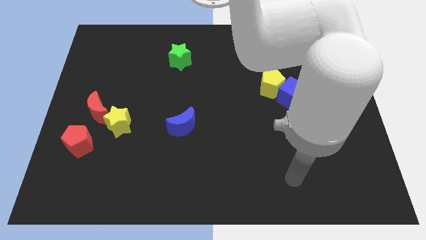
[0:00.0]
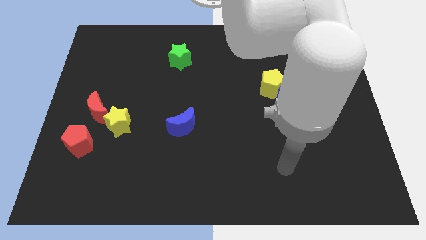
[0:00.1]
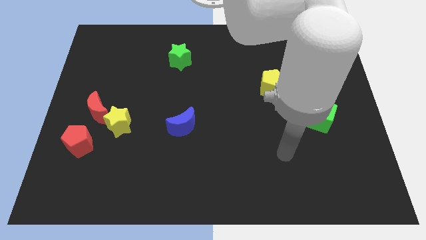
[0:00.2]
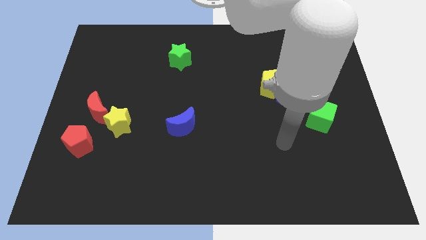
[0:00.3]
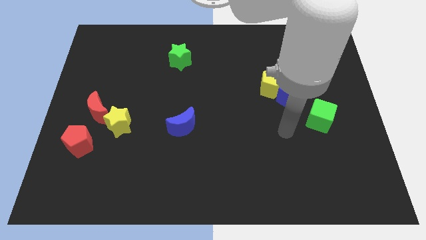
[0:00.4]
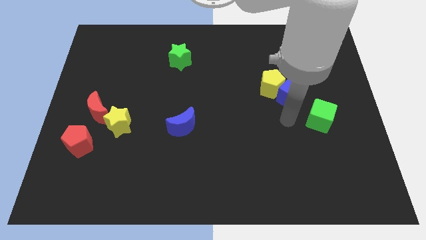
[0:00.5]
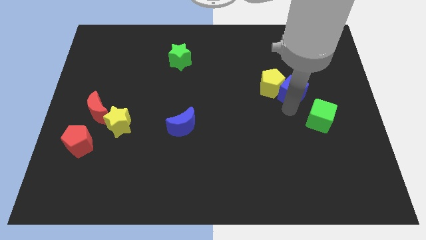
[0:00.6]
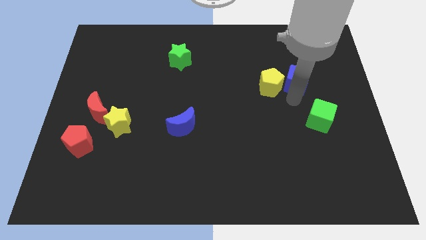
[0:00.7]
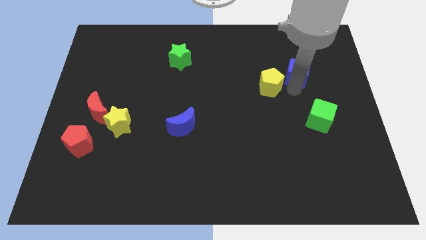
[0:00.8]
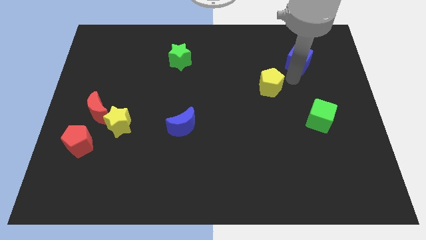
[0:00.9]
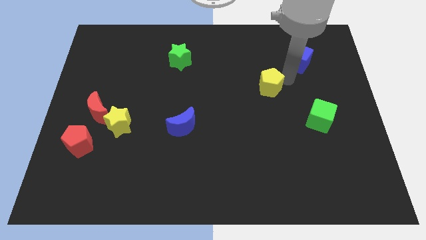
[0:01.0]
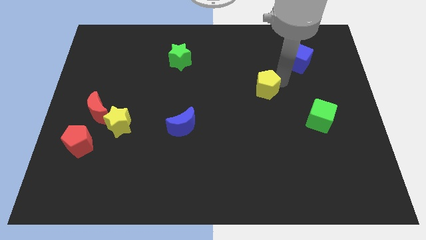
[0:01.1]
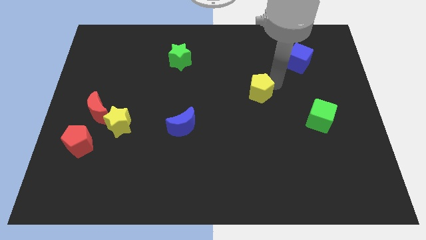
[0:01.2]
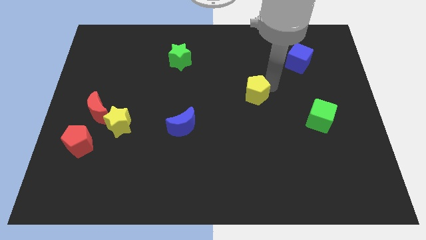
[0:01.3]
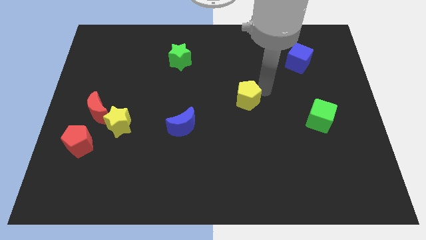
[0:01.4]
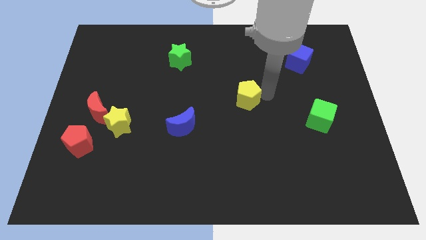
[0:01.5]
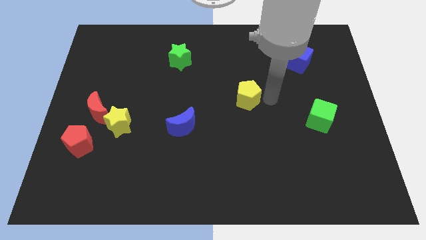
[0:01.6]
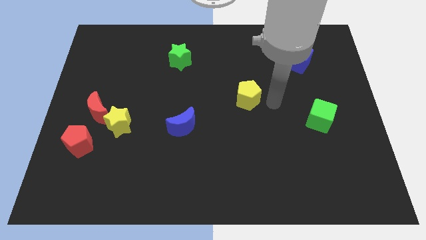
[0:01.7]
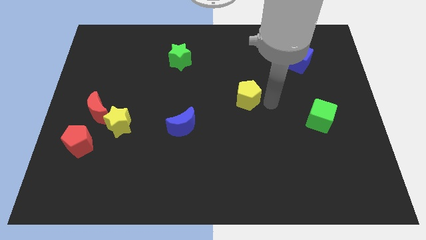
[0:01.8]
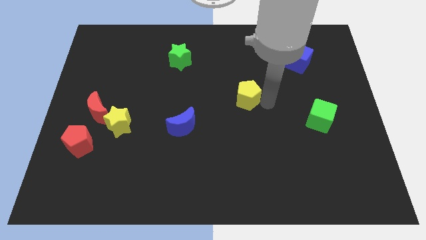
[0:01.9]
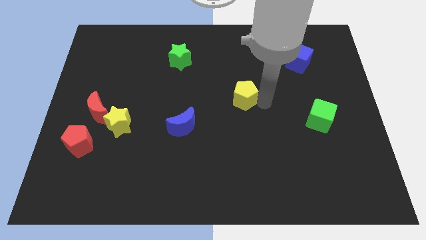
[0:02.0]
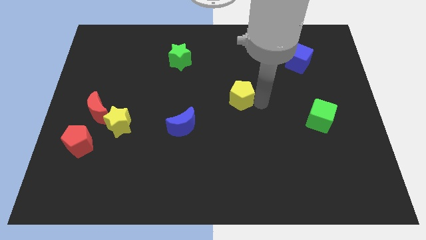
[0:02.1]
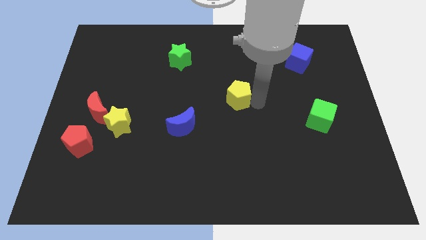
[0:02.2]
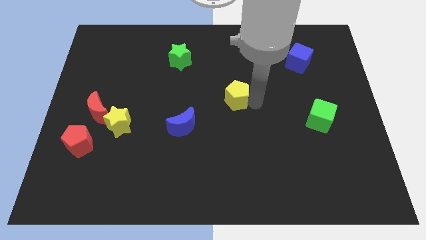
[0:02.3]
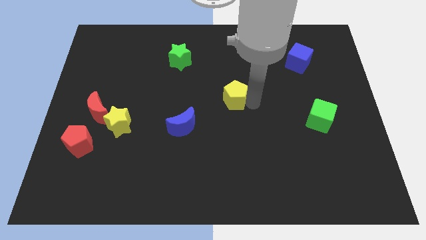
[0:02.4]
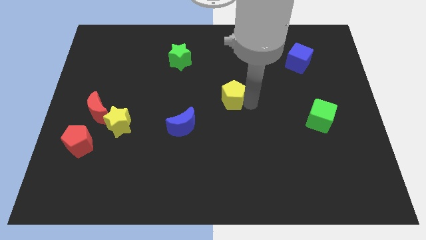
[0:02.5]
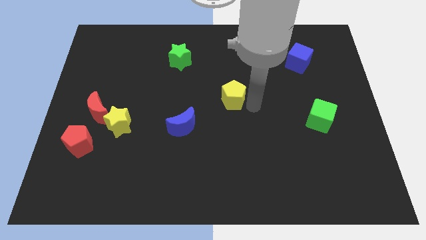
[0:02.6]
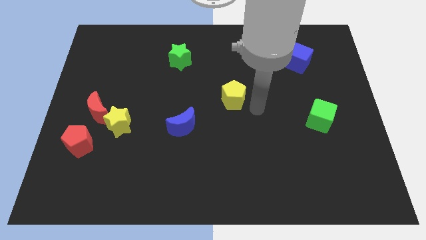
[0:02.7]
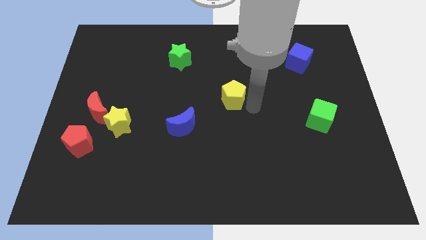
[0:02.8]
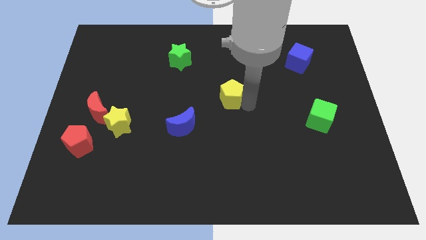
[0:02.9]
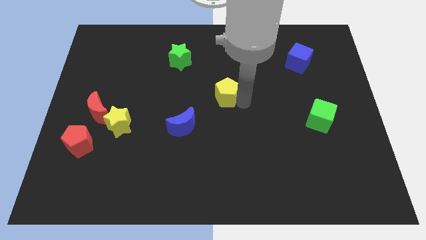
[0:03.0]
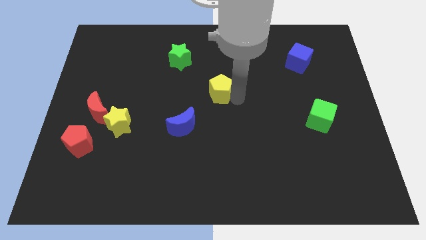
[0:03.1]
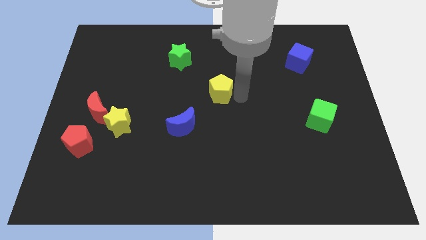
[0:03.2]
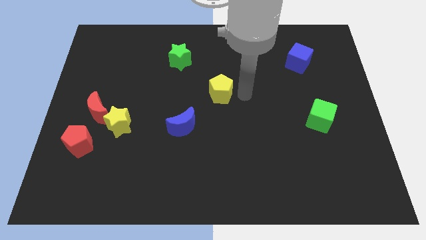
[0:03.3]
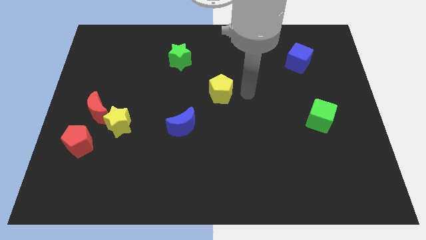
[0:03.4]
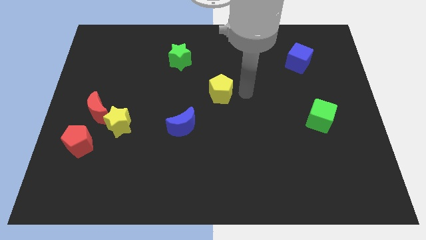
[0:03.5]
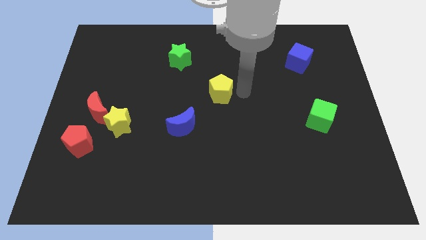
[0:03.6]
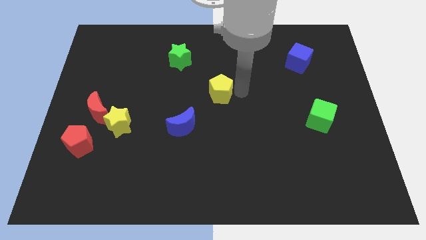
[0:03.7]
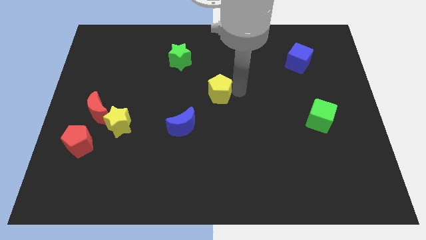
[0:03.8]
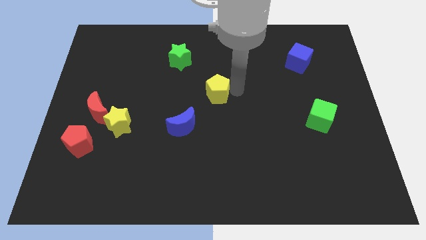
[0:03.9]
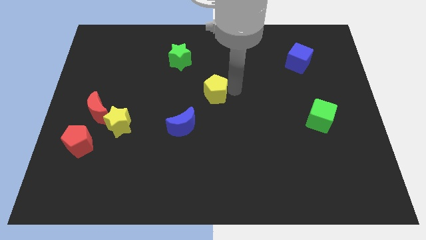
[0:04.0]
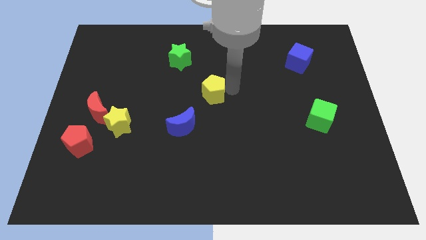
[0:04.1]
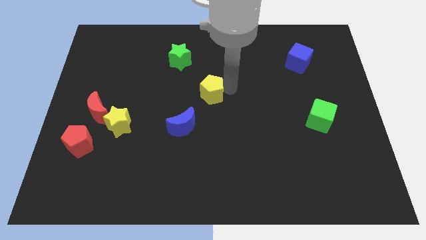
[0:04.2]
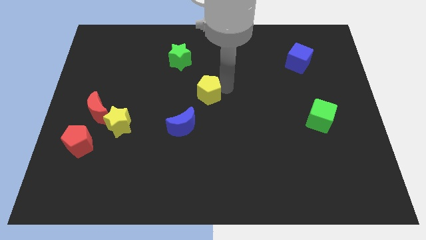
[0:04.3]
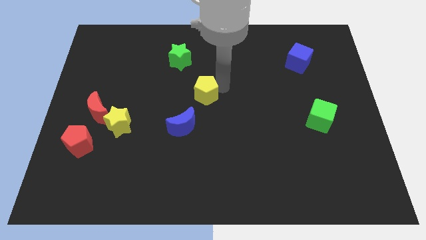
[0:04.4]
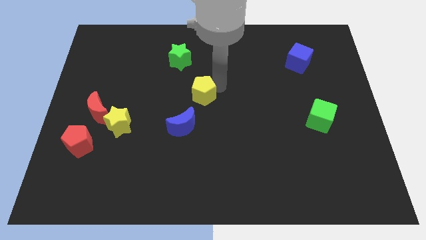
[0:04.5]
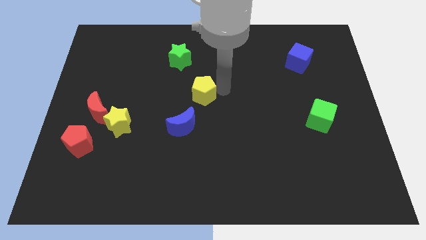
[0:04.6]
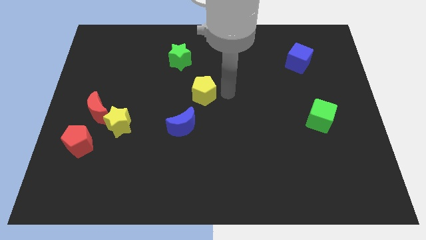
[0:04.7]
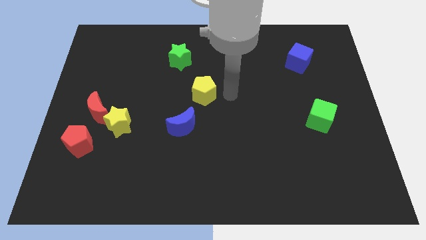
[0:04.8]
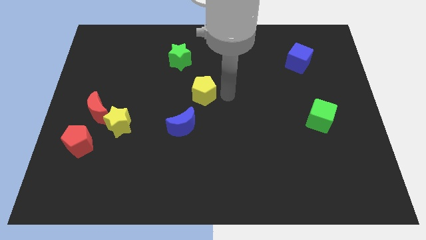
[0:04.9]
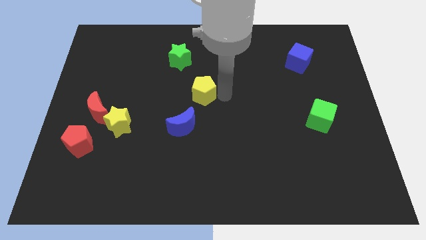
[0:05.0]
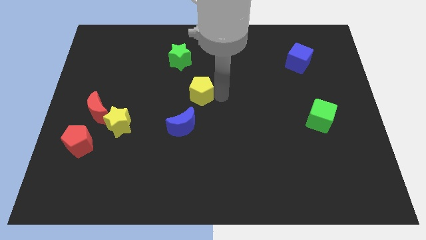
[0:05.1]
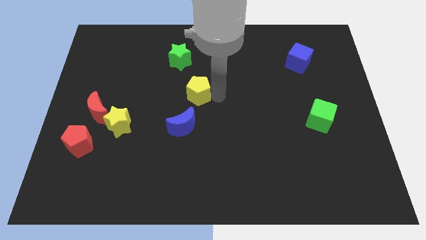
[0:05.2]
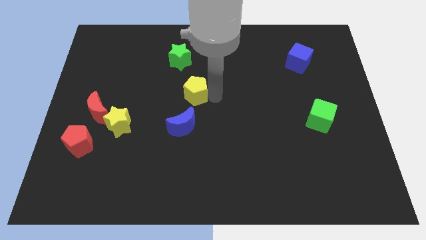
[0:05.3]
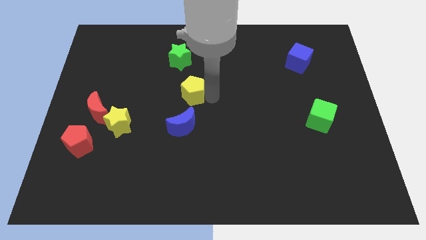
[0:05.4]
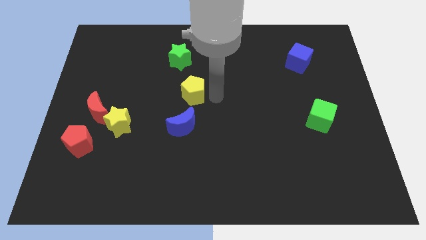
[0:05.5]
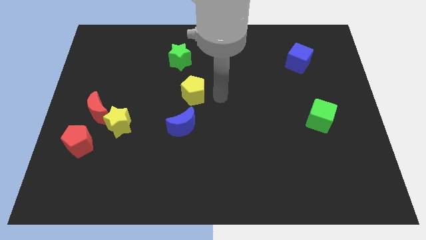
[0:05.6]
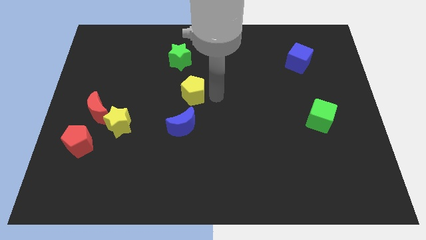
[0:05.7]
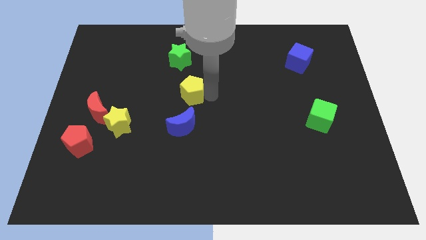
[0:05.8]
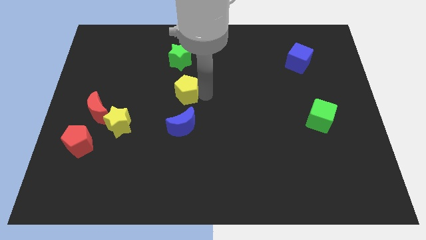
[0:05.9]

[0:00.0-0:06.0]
slide the yellow pentagon left

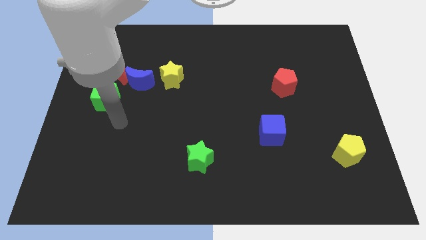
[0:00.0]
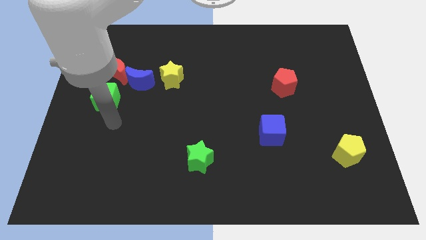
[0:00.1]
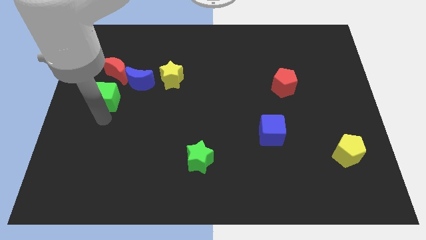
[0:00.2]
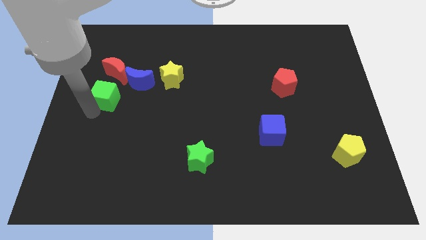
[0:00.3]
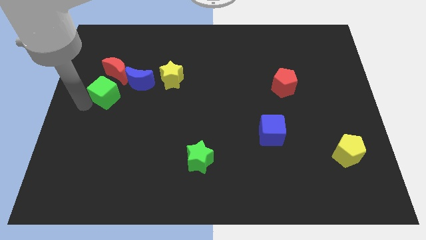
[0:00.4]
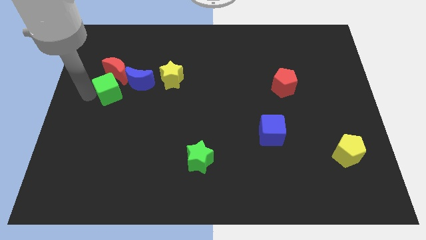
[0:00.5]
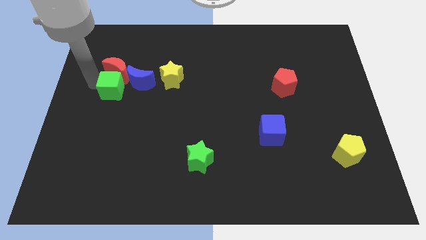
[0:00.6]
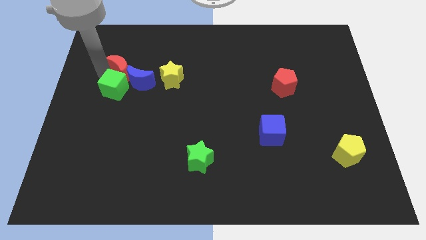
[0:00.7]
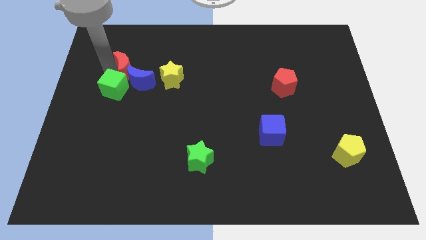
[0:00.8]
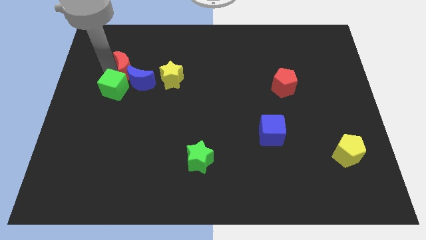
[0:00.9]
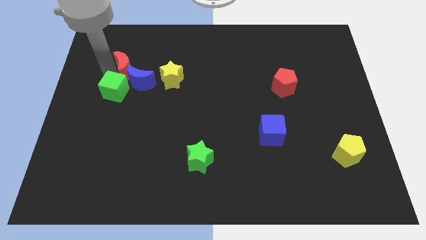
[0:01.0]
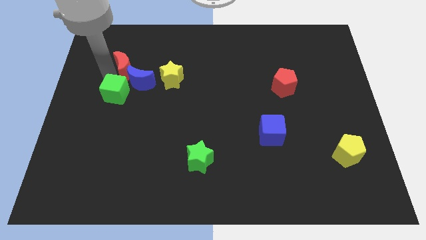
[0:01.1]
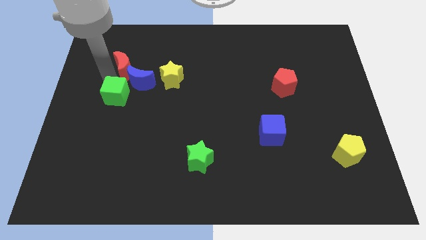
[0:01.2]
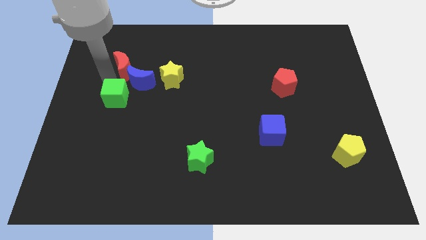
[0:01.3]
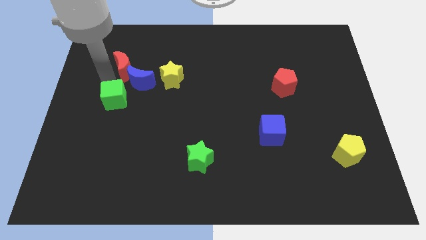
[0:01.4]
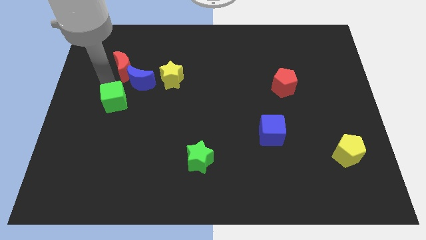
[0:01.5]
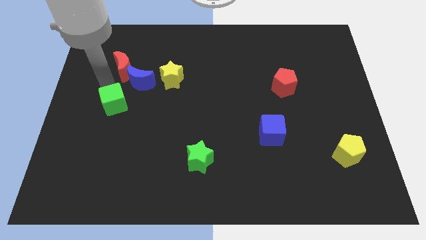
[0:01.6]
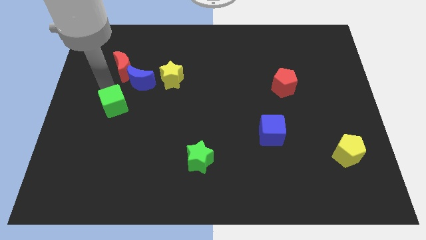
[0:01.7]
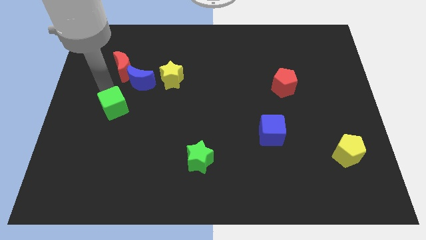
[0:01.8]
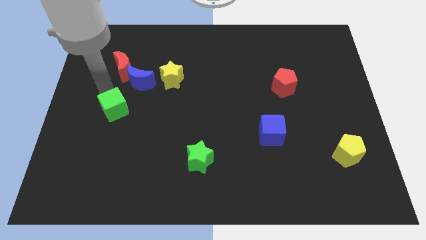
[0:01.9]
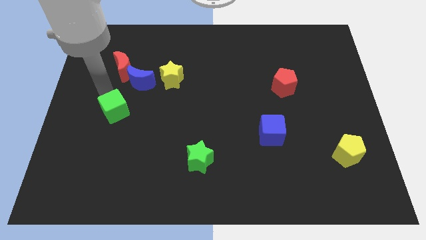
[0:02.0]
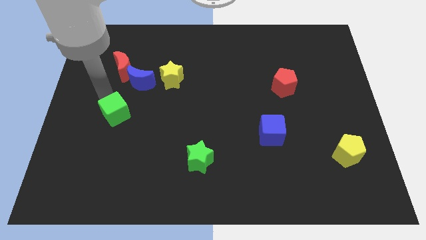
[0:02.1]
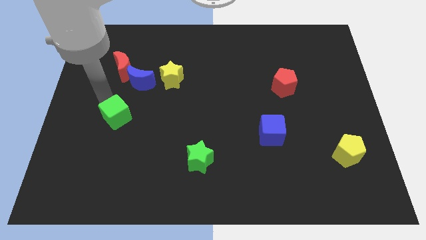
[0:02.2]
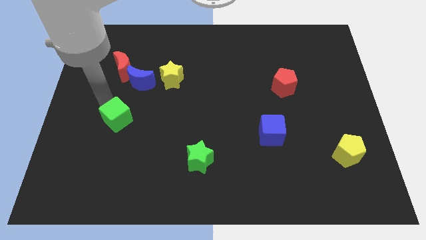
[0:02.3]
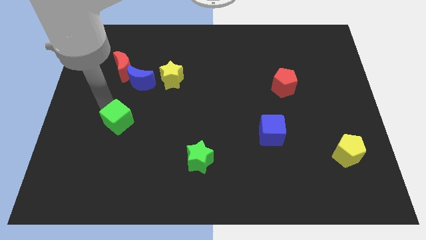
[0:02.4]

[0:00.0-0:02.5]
slightly slide the green cube downwards and to the right diagonally
